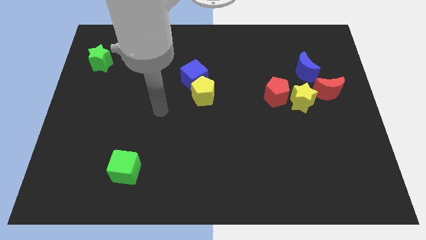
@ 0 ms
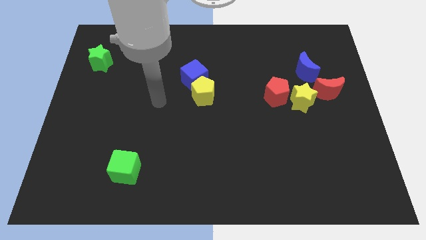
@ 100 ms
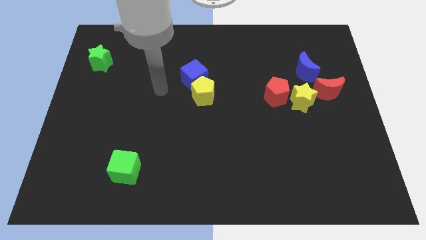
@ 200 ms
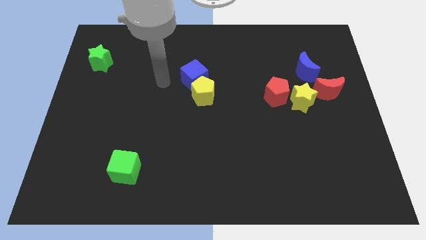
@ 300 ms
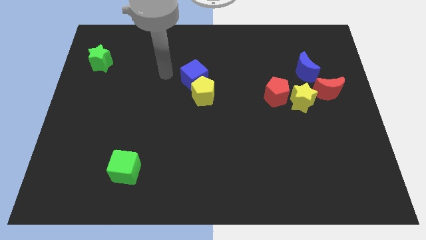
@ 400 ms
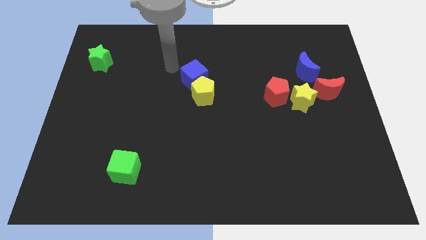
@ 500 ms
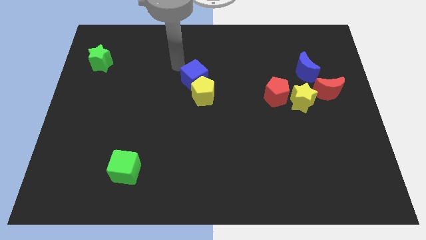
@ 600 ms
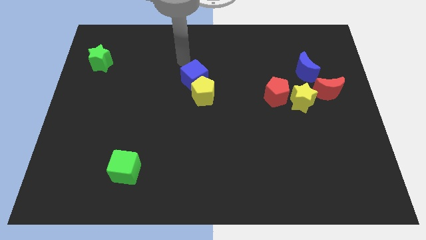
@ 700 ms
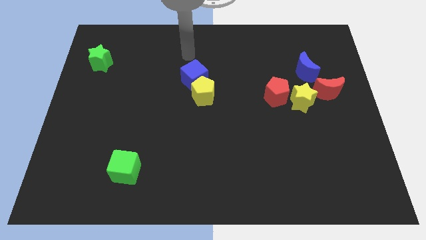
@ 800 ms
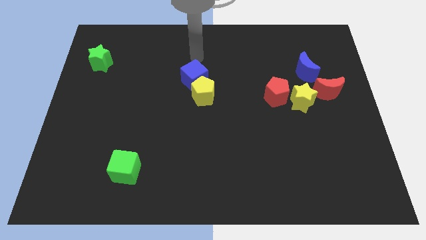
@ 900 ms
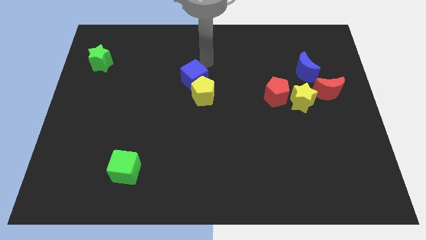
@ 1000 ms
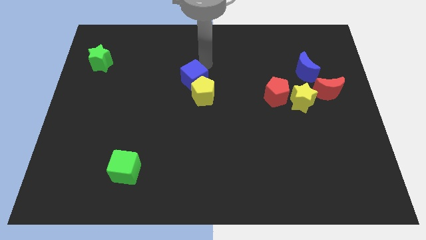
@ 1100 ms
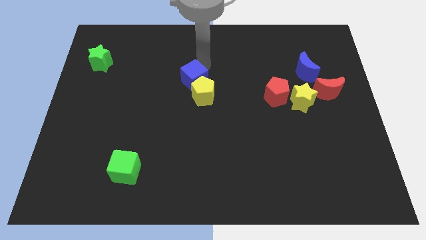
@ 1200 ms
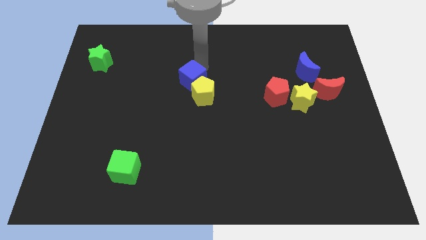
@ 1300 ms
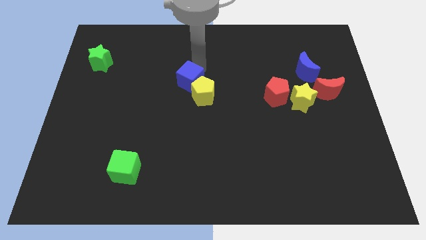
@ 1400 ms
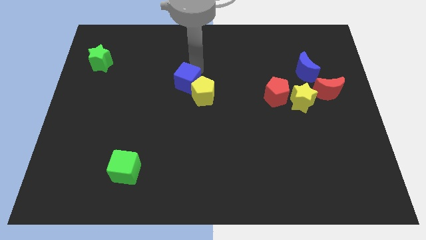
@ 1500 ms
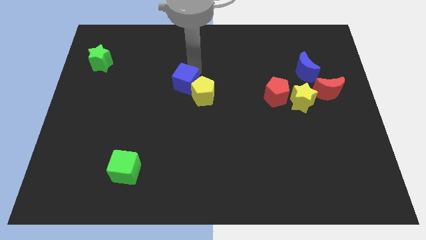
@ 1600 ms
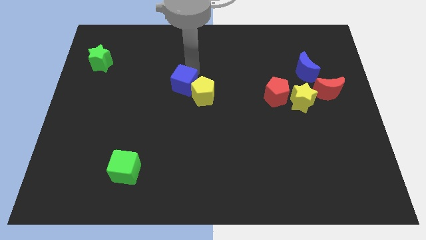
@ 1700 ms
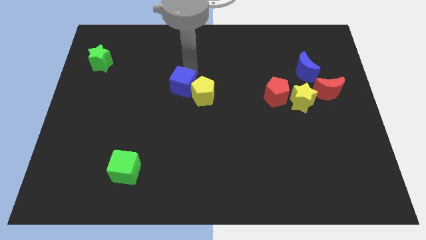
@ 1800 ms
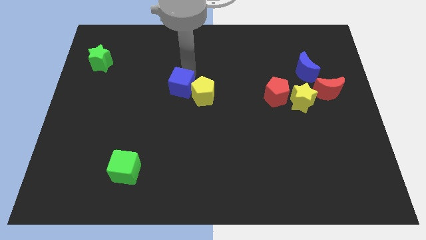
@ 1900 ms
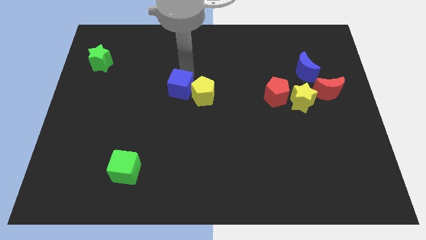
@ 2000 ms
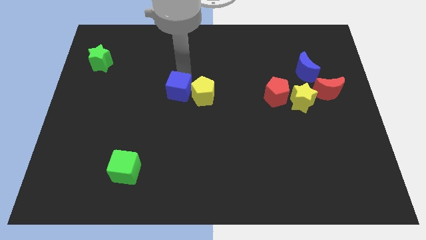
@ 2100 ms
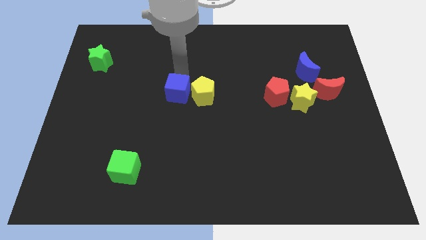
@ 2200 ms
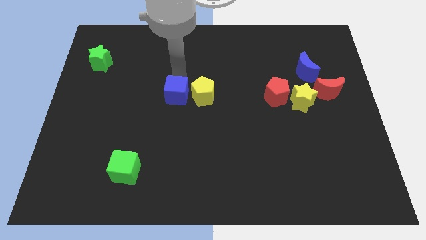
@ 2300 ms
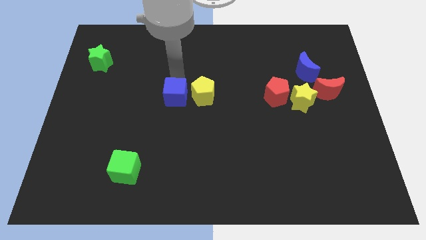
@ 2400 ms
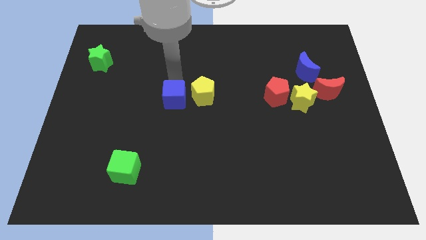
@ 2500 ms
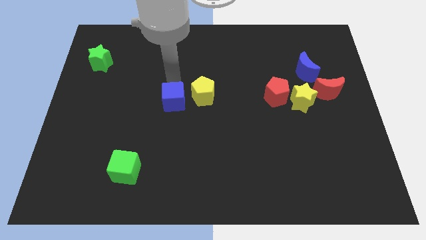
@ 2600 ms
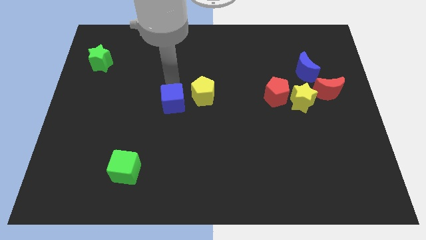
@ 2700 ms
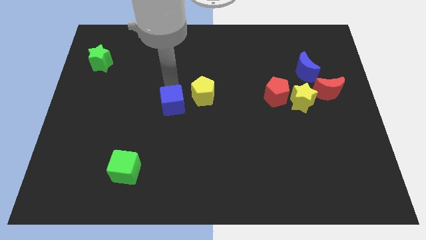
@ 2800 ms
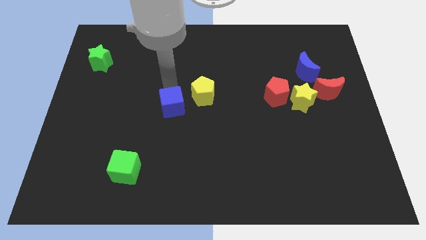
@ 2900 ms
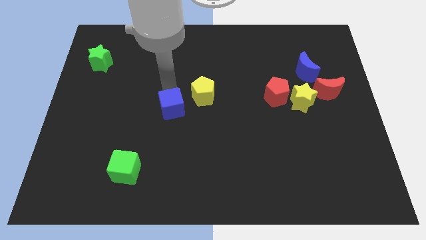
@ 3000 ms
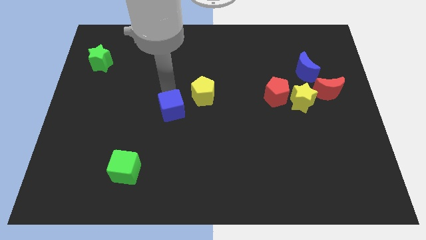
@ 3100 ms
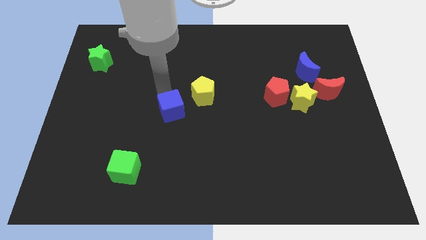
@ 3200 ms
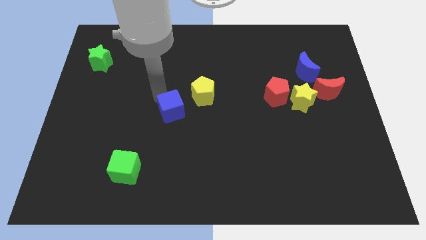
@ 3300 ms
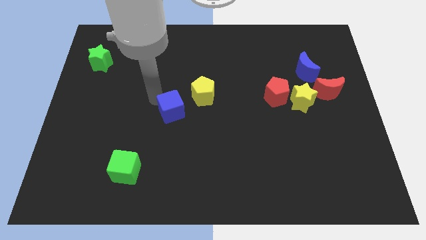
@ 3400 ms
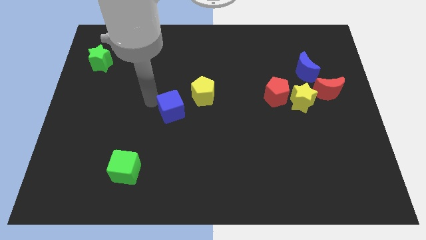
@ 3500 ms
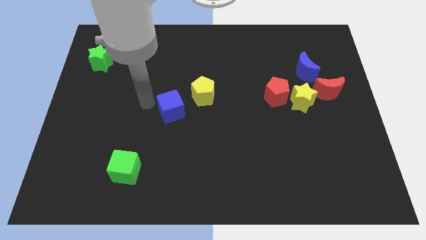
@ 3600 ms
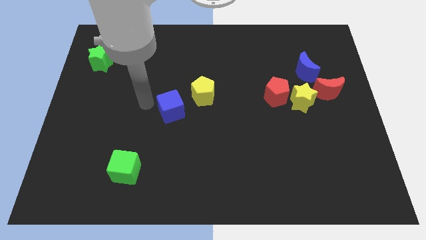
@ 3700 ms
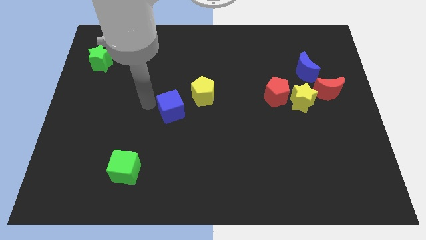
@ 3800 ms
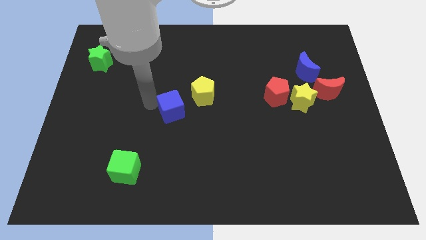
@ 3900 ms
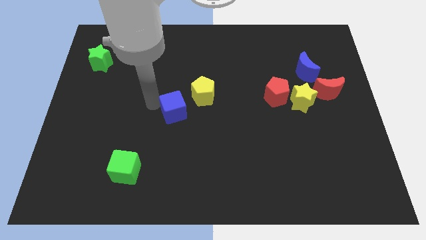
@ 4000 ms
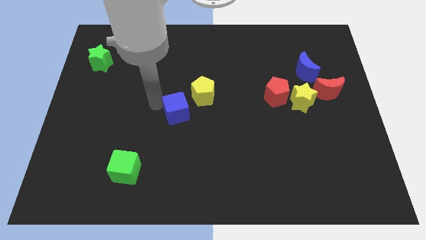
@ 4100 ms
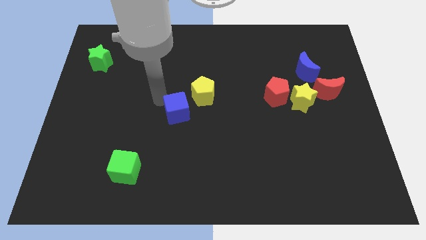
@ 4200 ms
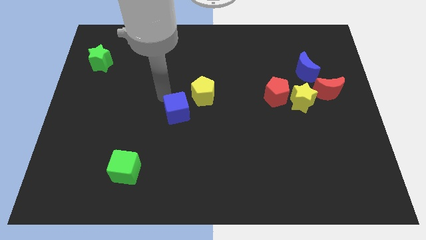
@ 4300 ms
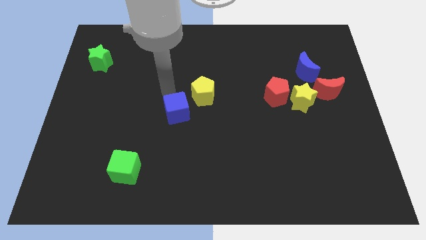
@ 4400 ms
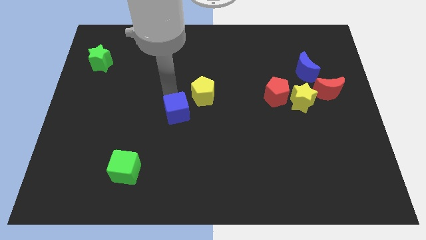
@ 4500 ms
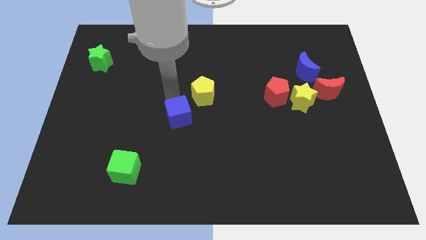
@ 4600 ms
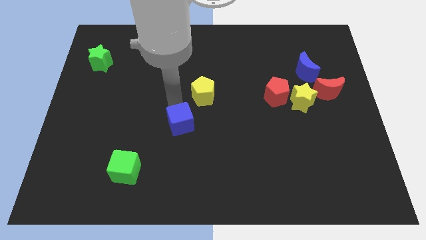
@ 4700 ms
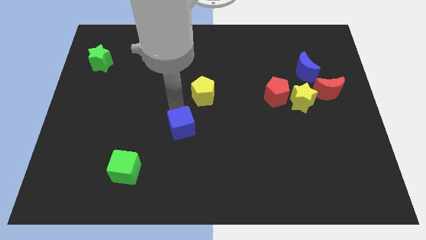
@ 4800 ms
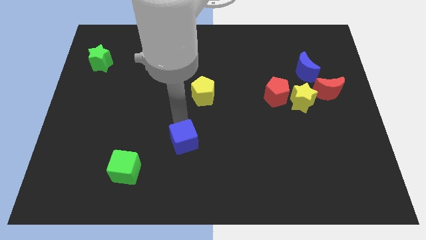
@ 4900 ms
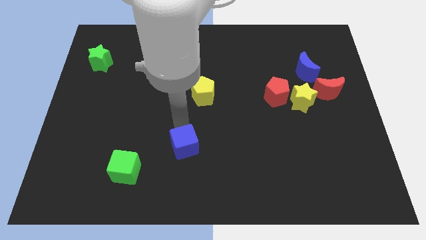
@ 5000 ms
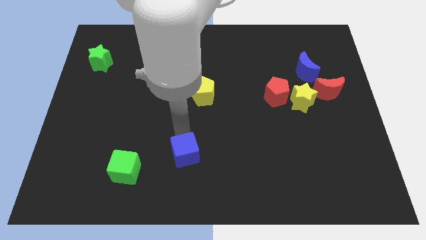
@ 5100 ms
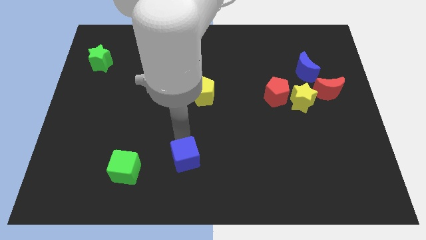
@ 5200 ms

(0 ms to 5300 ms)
move the blue cube to the bottom side

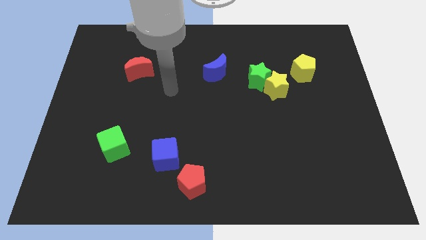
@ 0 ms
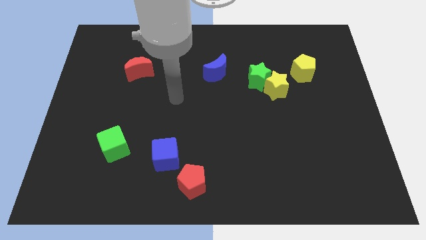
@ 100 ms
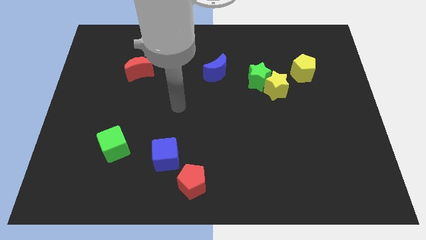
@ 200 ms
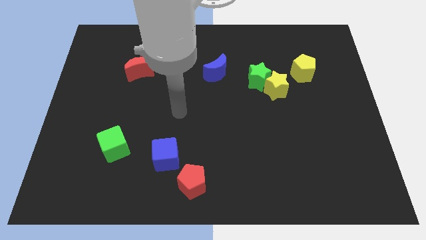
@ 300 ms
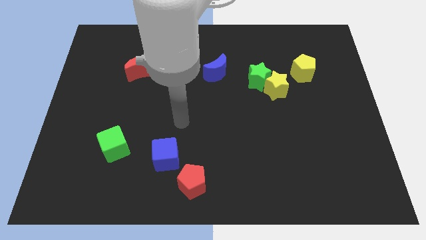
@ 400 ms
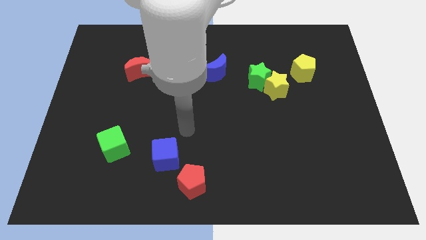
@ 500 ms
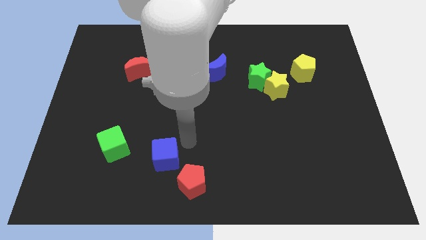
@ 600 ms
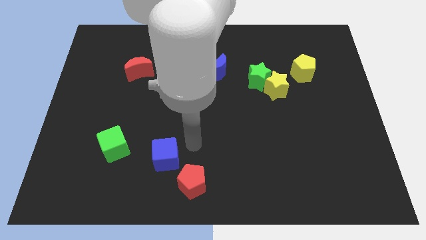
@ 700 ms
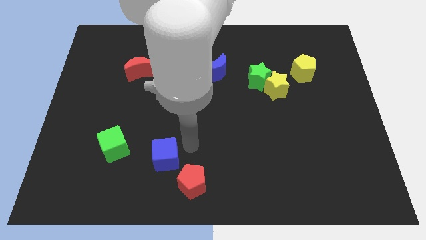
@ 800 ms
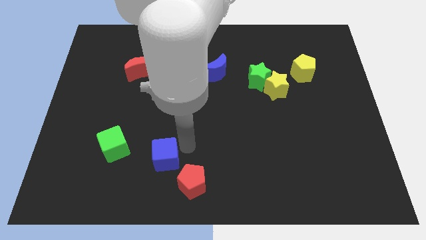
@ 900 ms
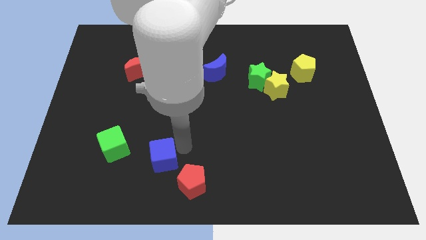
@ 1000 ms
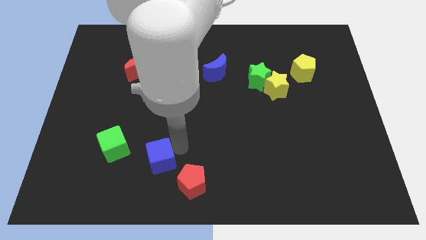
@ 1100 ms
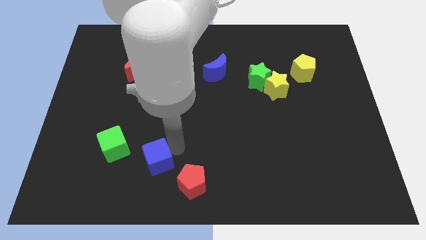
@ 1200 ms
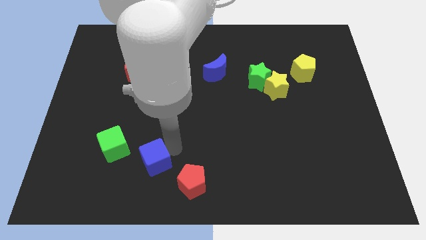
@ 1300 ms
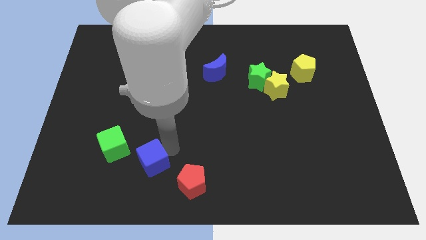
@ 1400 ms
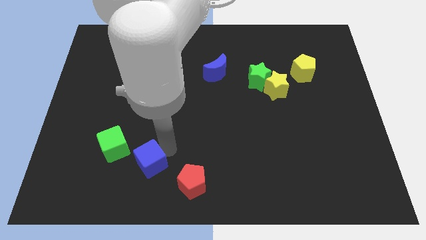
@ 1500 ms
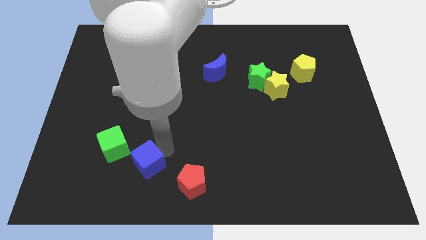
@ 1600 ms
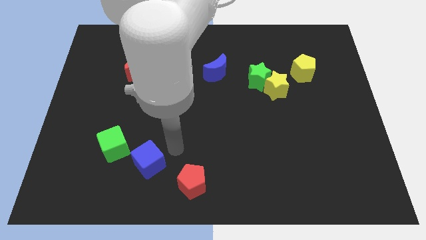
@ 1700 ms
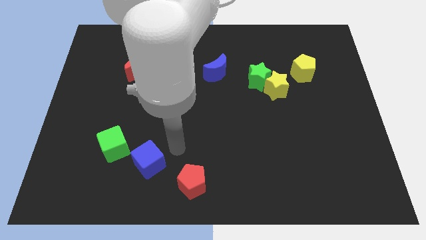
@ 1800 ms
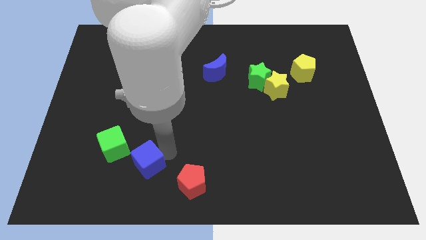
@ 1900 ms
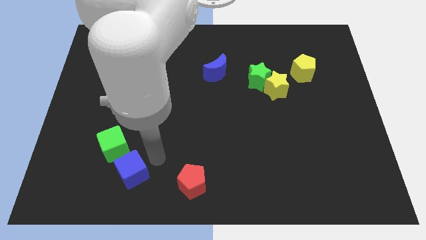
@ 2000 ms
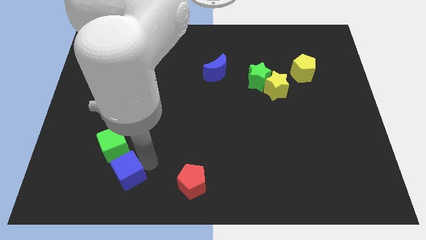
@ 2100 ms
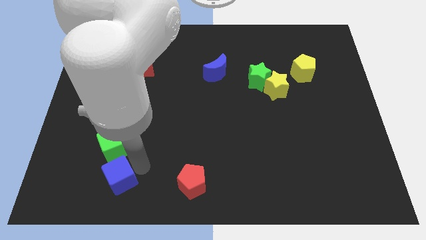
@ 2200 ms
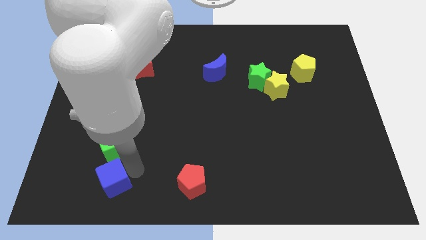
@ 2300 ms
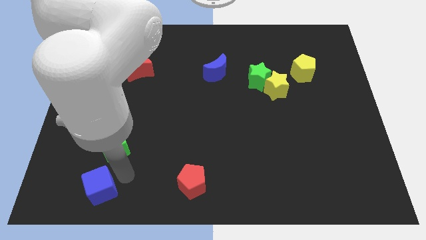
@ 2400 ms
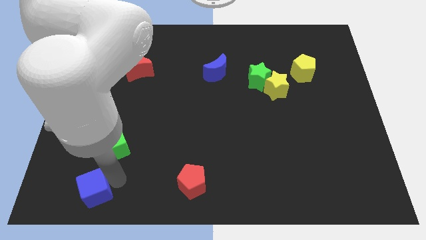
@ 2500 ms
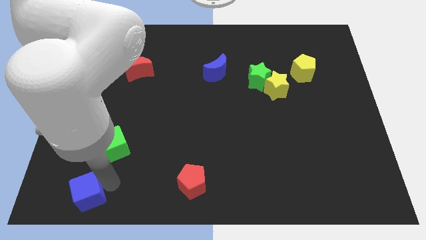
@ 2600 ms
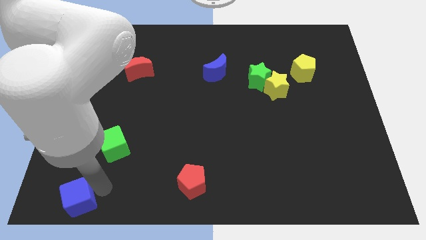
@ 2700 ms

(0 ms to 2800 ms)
push the blue cube to the lower left corner
